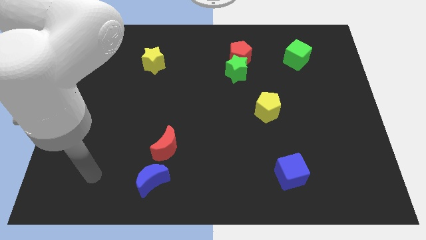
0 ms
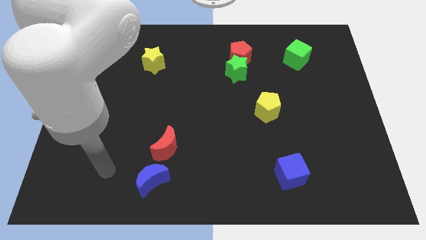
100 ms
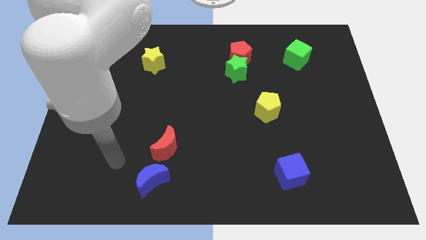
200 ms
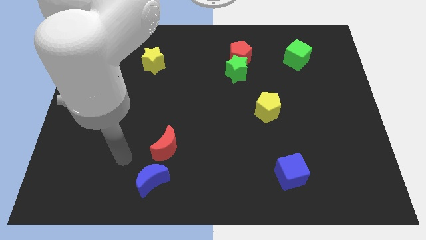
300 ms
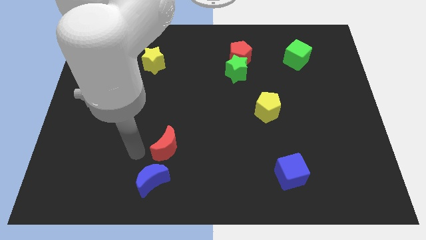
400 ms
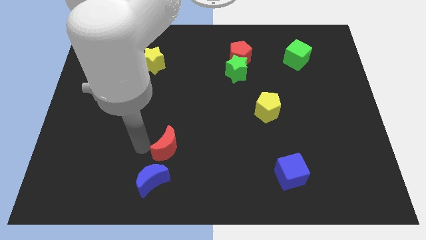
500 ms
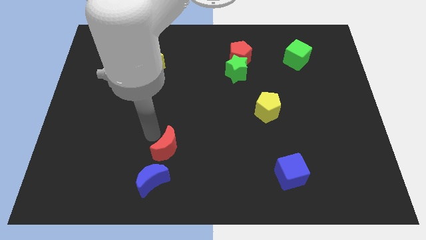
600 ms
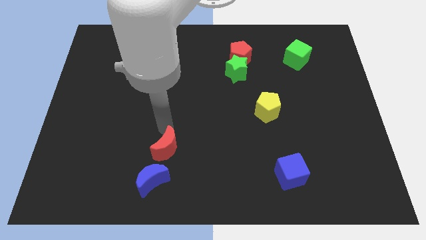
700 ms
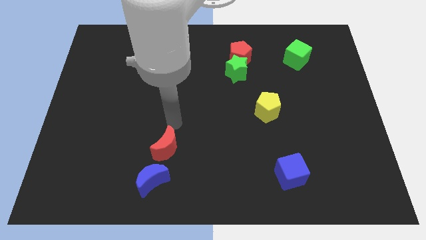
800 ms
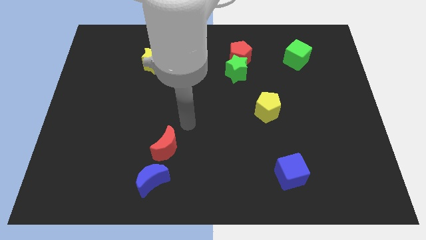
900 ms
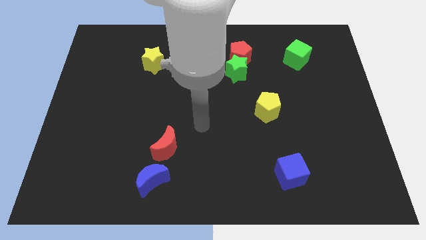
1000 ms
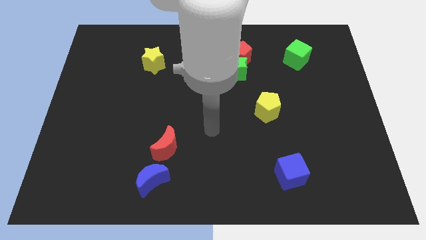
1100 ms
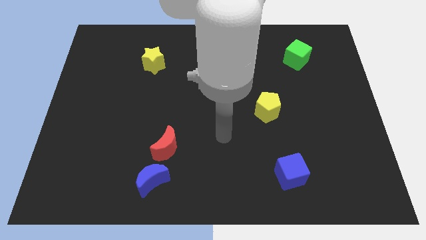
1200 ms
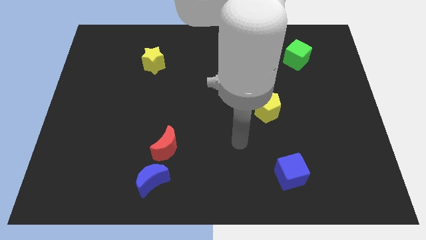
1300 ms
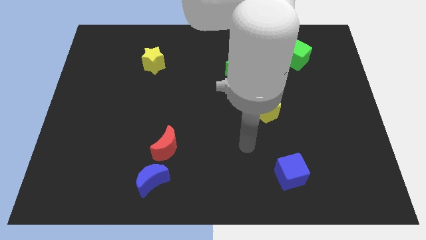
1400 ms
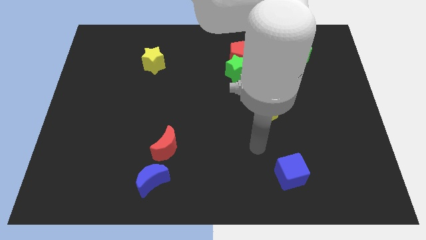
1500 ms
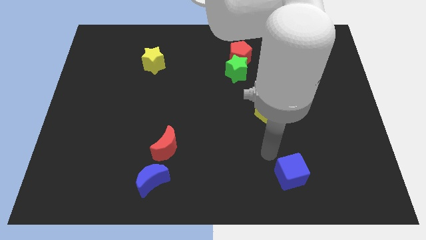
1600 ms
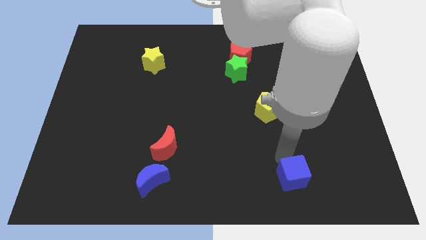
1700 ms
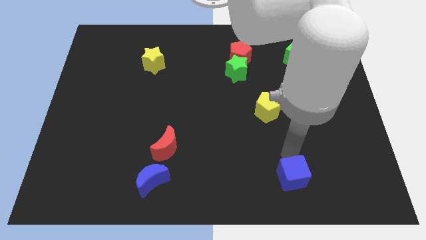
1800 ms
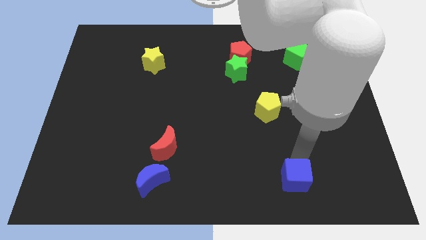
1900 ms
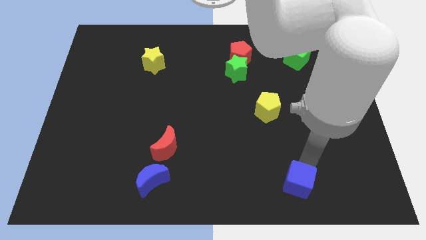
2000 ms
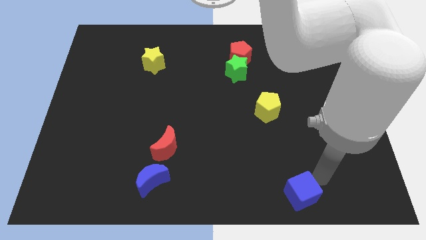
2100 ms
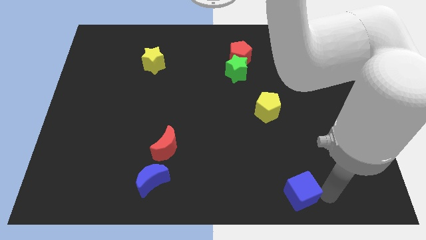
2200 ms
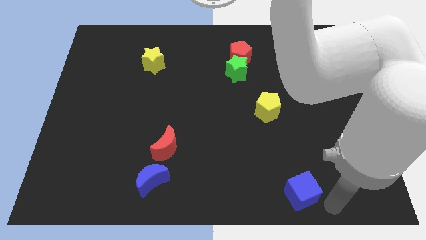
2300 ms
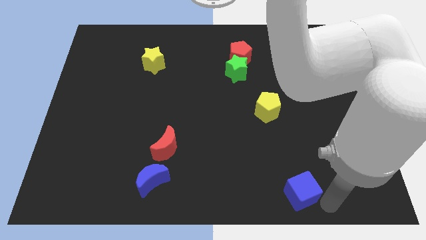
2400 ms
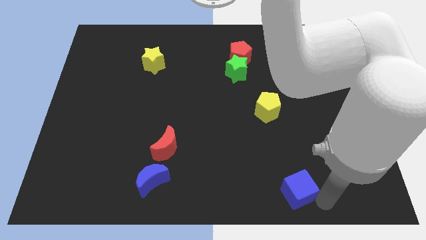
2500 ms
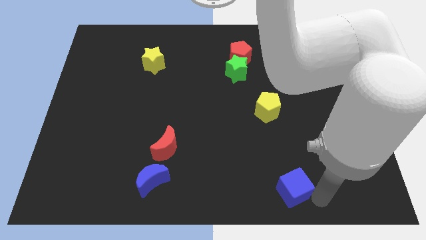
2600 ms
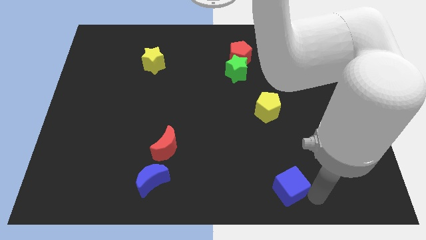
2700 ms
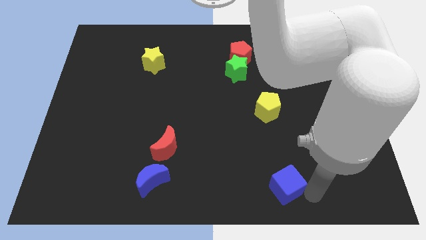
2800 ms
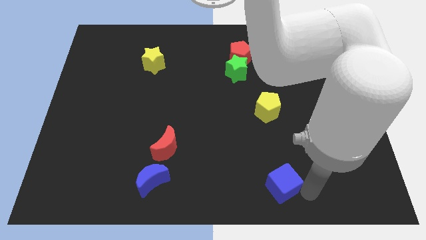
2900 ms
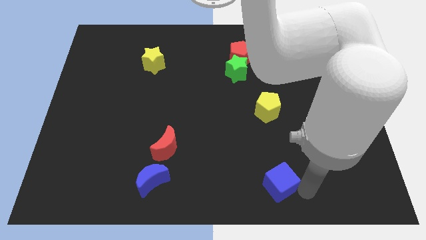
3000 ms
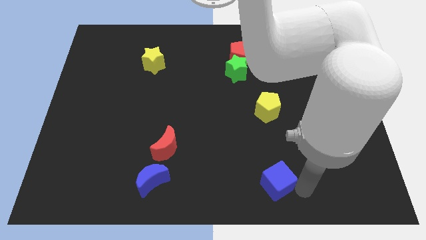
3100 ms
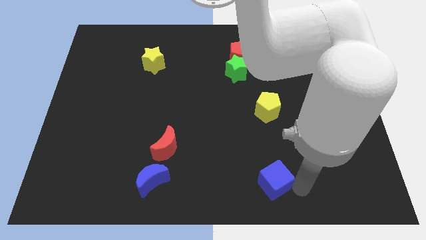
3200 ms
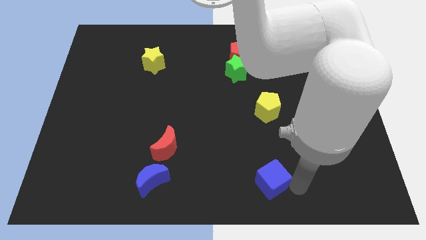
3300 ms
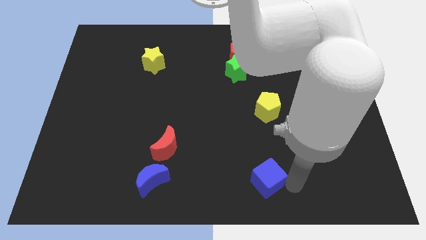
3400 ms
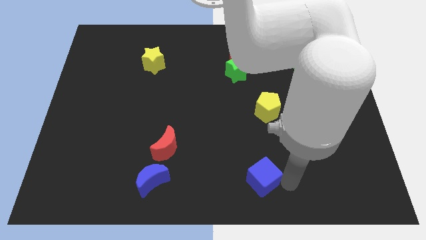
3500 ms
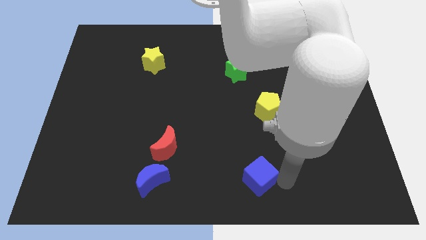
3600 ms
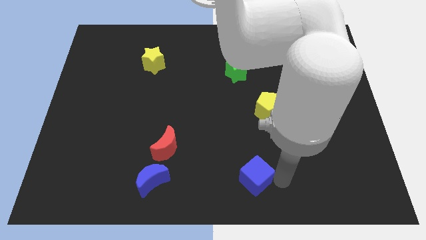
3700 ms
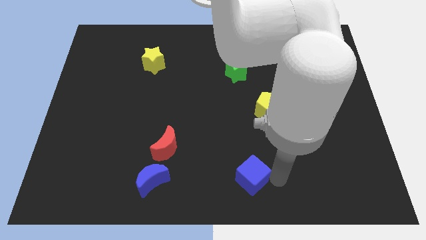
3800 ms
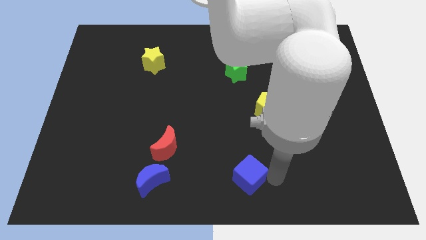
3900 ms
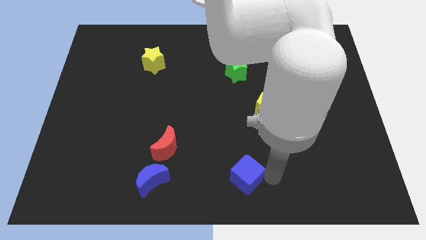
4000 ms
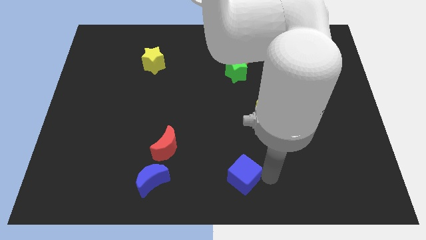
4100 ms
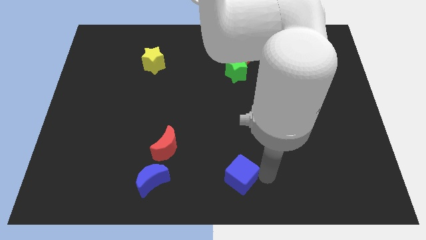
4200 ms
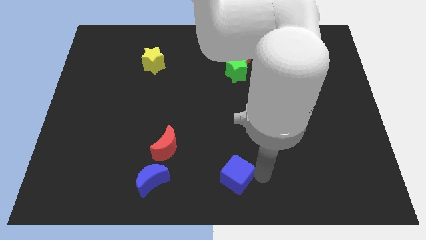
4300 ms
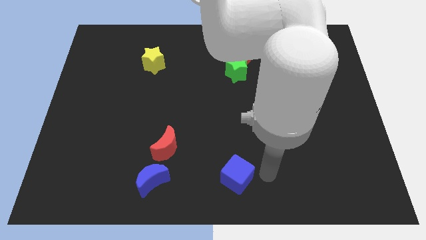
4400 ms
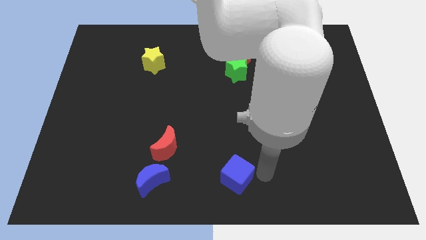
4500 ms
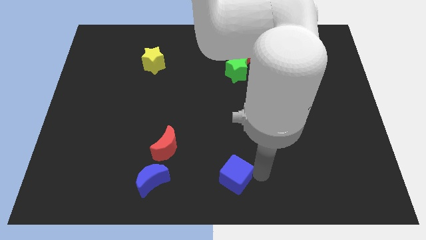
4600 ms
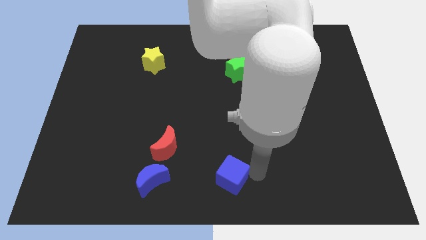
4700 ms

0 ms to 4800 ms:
put the blue cube right of the blue moon

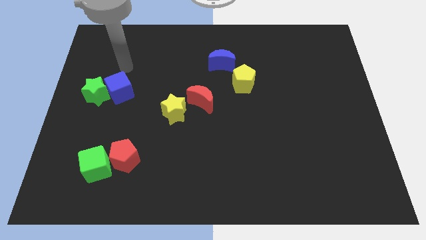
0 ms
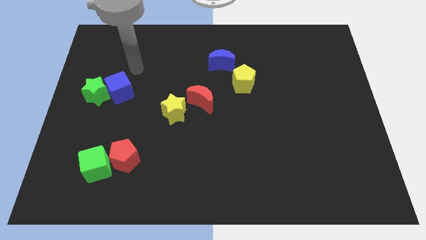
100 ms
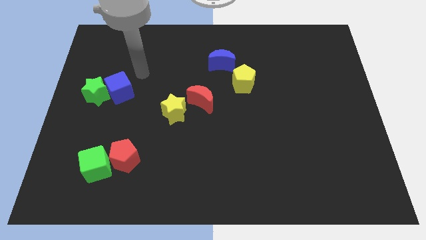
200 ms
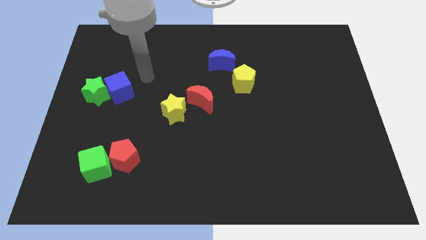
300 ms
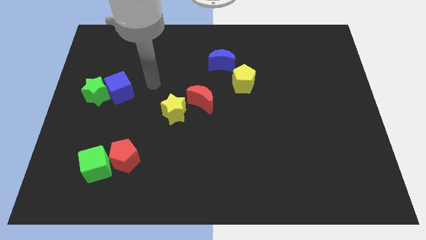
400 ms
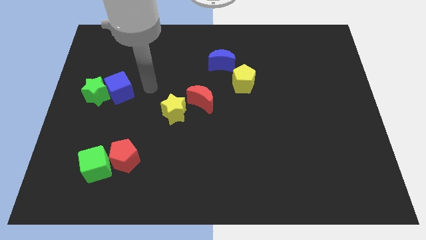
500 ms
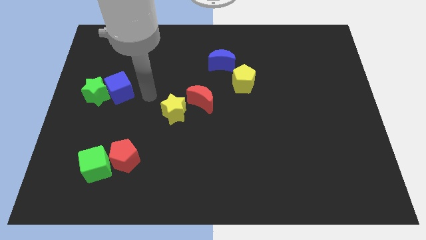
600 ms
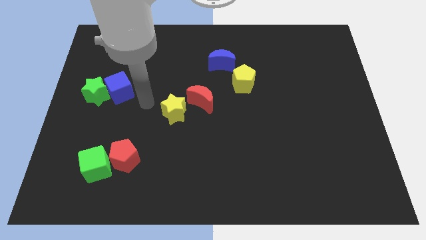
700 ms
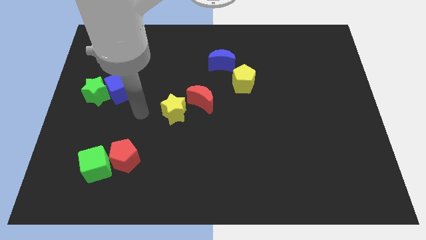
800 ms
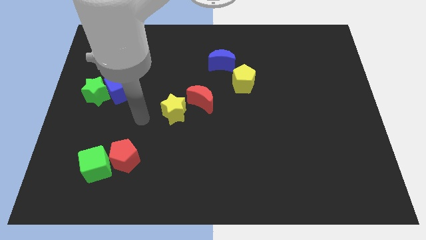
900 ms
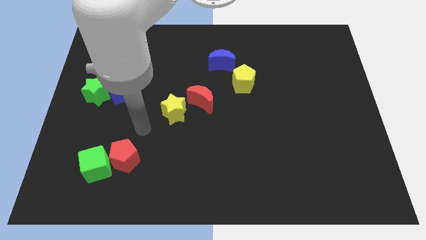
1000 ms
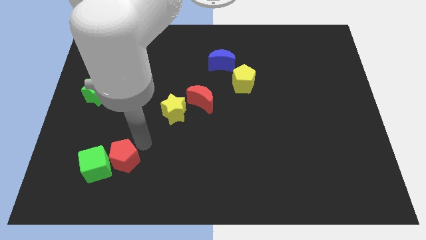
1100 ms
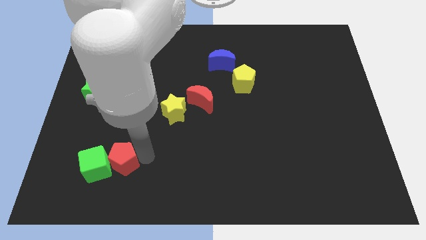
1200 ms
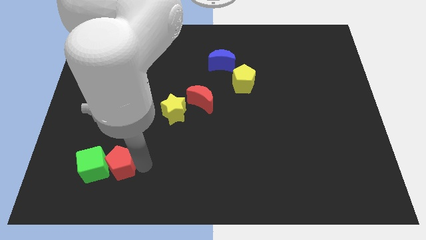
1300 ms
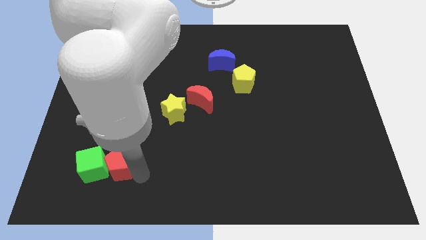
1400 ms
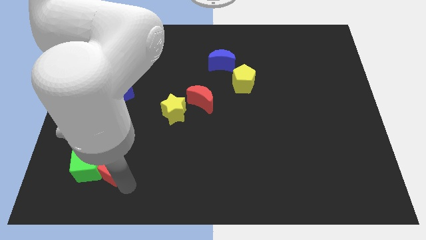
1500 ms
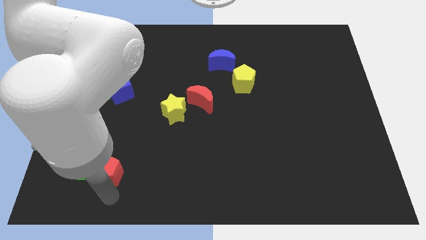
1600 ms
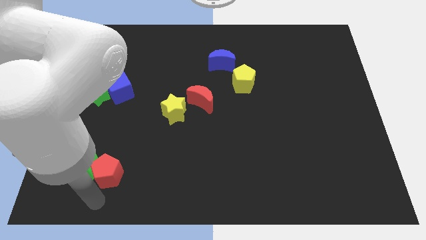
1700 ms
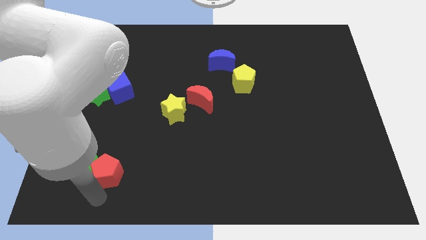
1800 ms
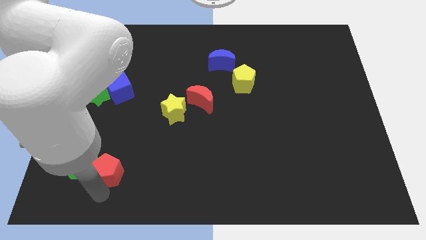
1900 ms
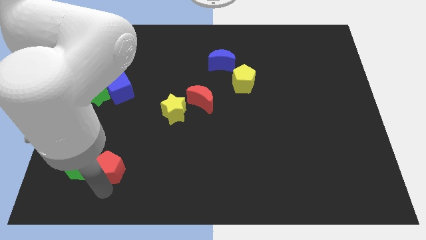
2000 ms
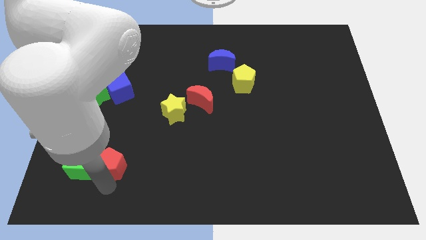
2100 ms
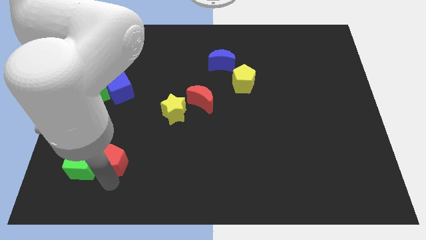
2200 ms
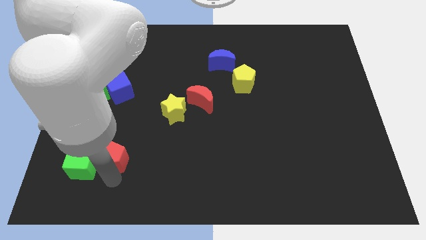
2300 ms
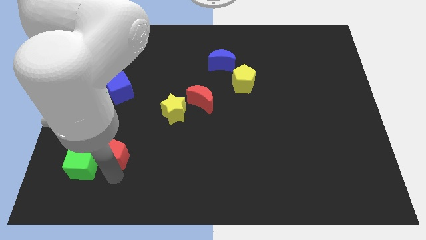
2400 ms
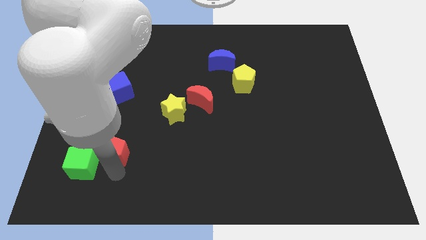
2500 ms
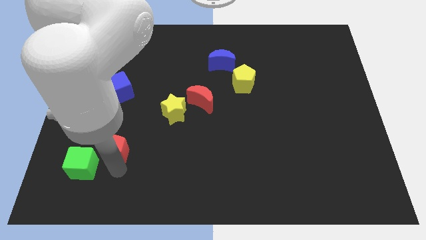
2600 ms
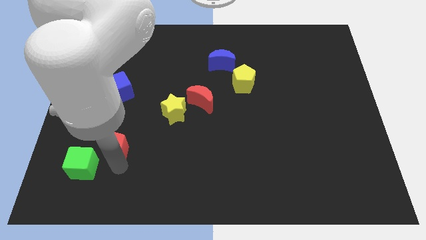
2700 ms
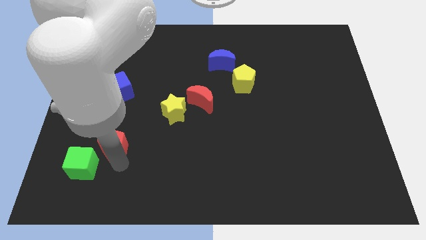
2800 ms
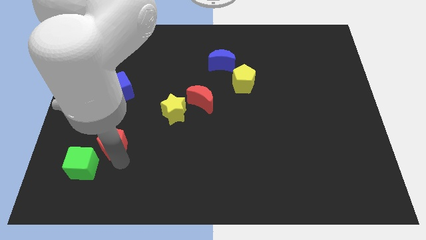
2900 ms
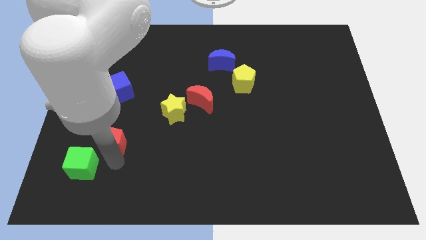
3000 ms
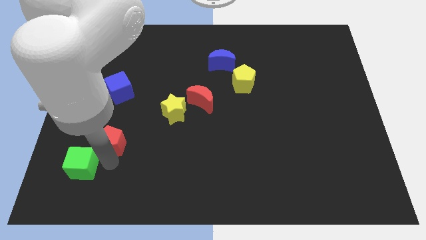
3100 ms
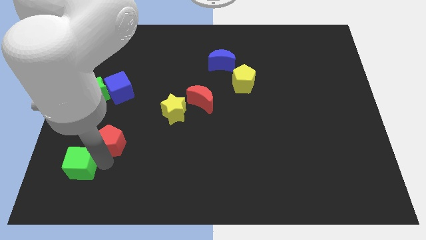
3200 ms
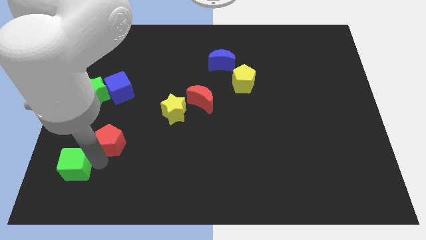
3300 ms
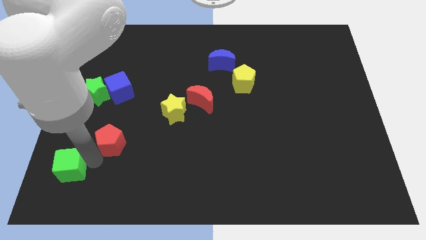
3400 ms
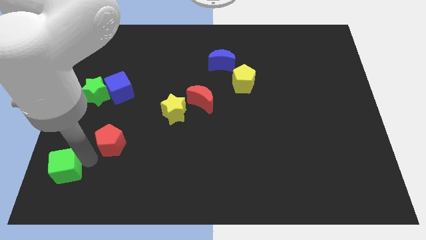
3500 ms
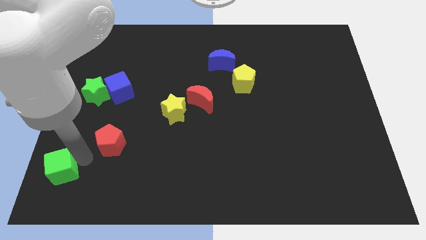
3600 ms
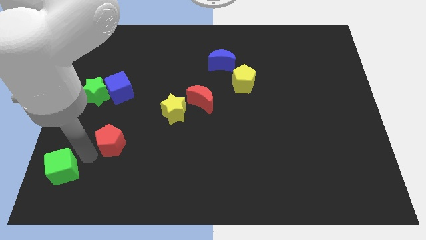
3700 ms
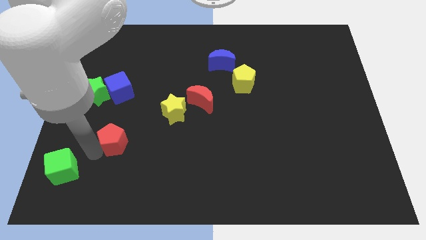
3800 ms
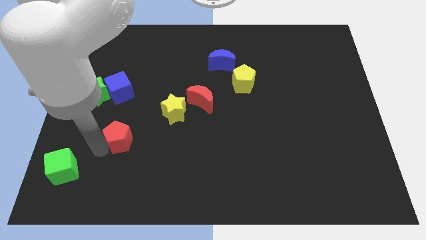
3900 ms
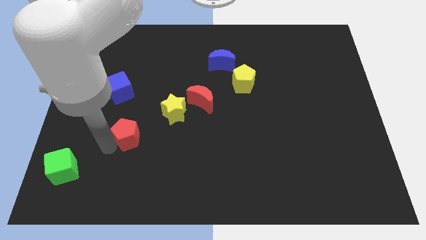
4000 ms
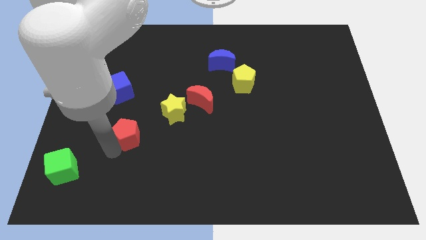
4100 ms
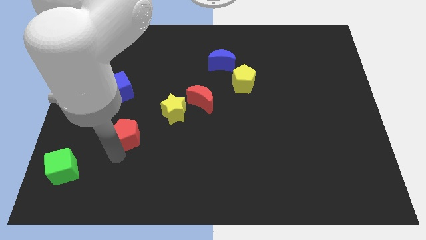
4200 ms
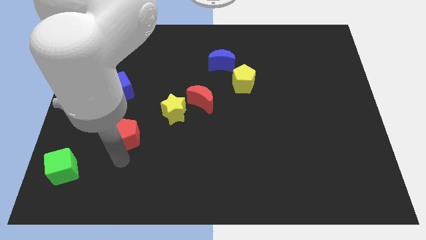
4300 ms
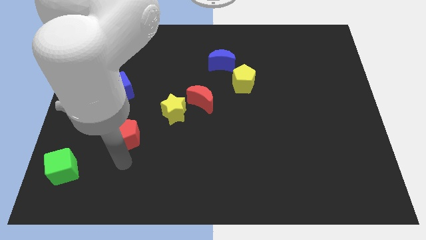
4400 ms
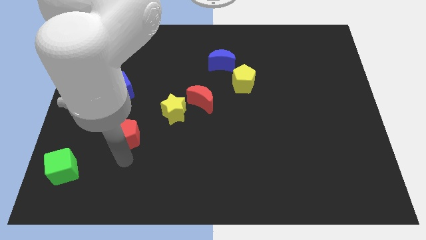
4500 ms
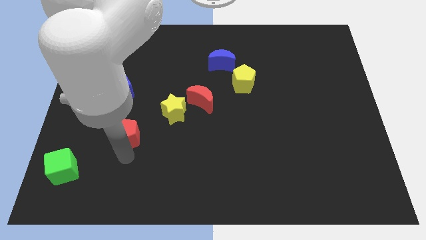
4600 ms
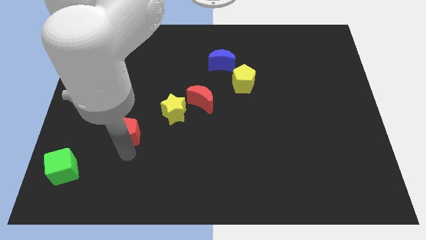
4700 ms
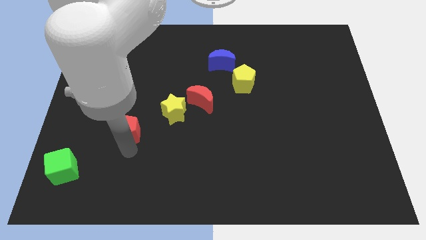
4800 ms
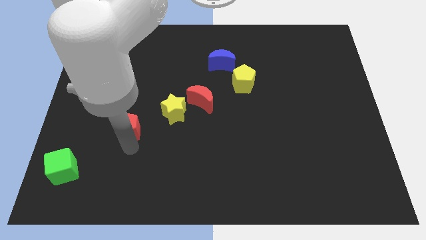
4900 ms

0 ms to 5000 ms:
slide the red pentagon to the left side of the yellow star
